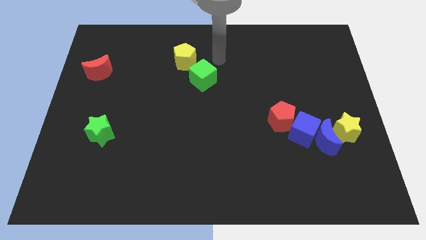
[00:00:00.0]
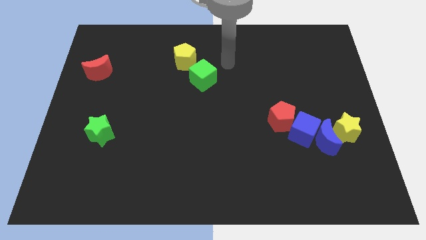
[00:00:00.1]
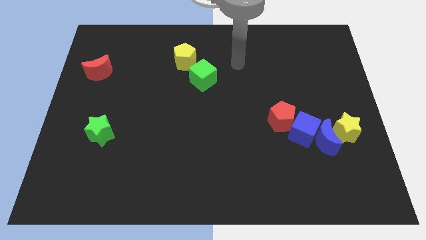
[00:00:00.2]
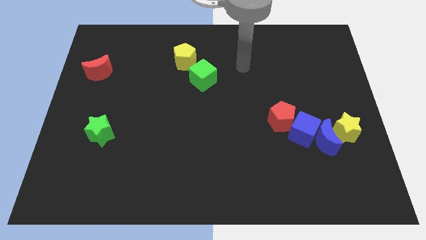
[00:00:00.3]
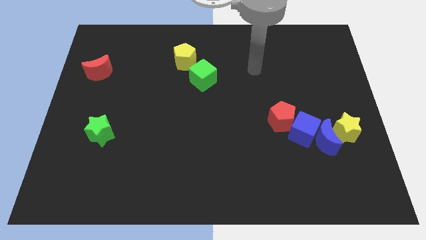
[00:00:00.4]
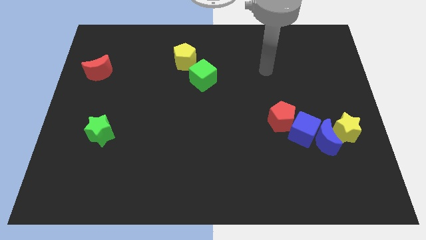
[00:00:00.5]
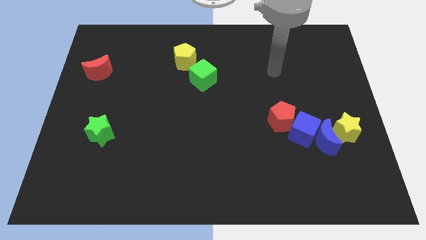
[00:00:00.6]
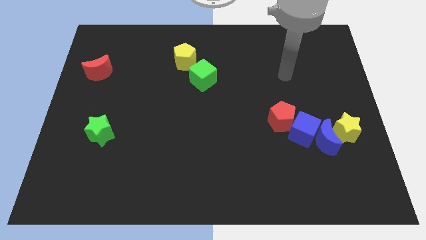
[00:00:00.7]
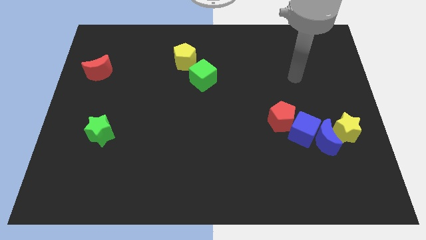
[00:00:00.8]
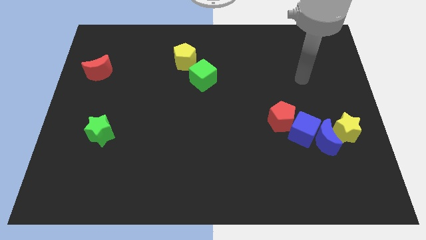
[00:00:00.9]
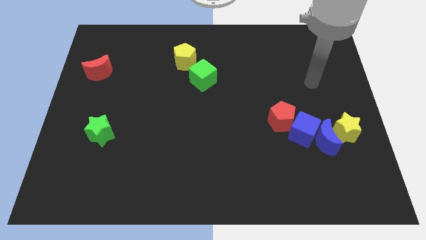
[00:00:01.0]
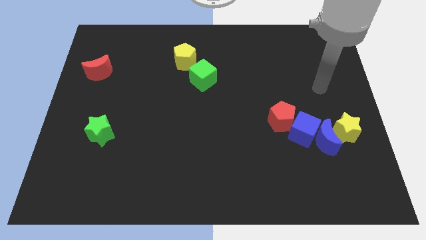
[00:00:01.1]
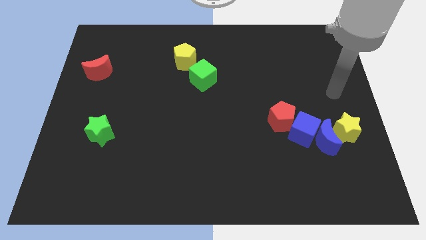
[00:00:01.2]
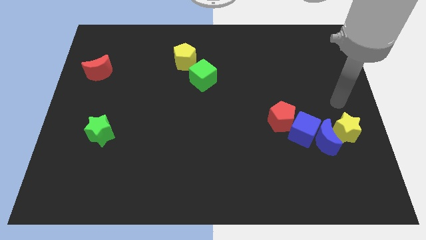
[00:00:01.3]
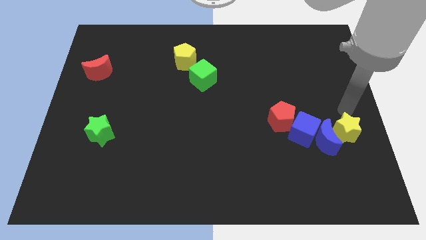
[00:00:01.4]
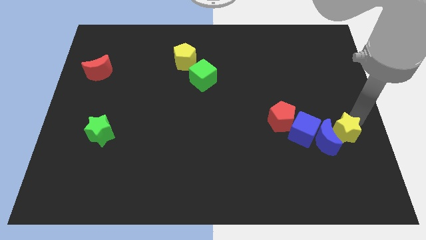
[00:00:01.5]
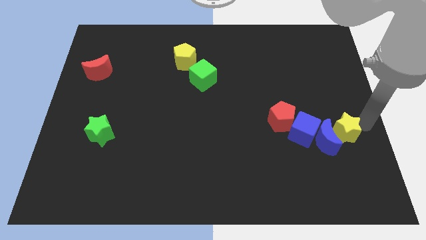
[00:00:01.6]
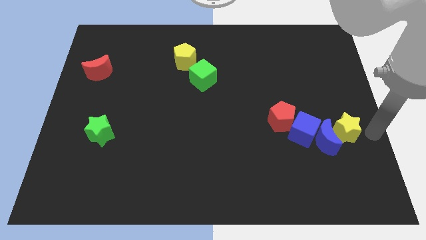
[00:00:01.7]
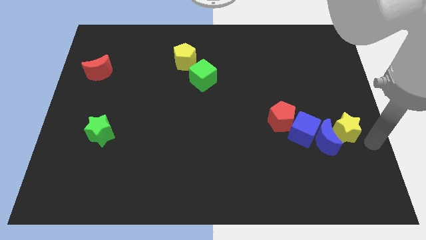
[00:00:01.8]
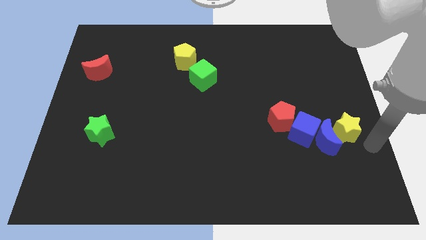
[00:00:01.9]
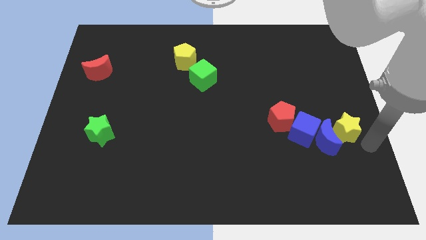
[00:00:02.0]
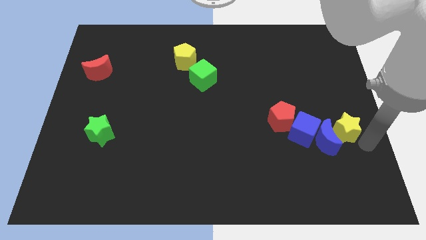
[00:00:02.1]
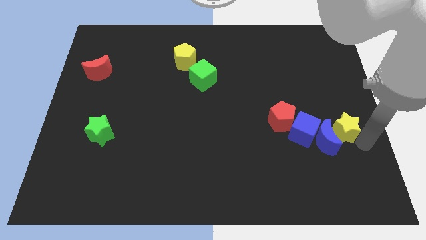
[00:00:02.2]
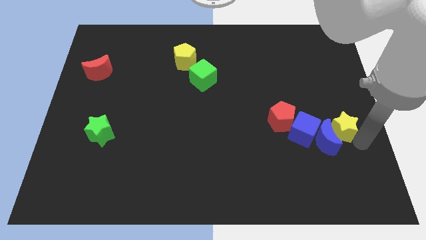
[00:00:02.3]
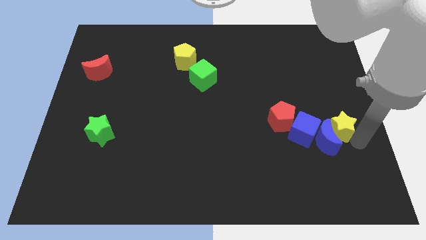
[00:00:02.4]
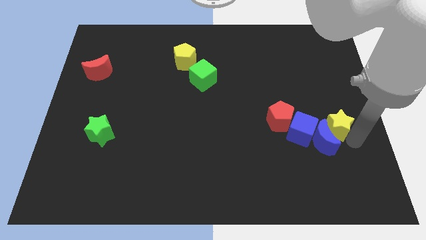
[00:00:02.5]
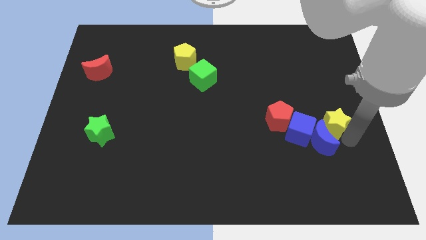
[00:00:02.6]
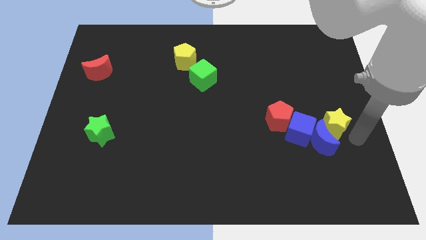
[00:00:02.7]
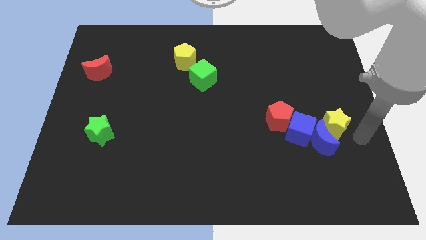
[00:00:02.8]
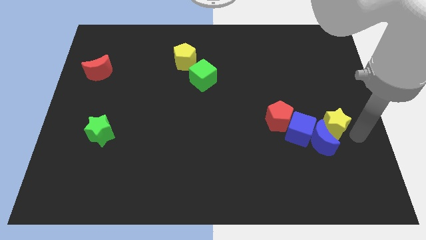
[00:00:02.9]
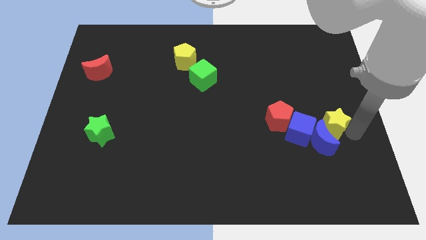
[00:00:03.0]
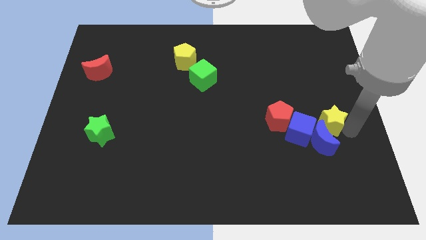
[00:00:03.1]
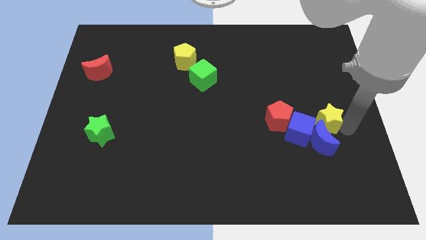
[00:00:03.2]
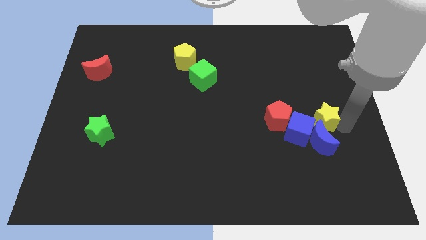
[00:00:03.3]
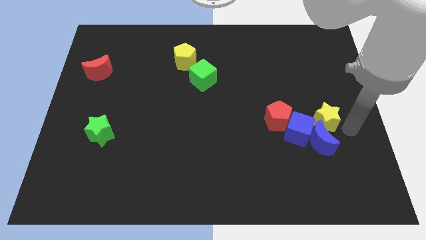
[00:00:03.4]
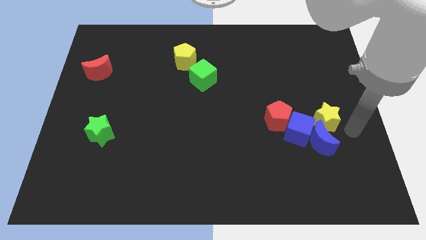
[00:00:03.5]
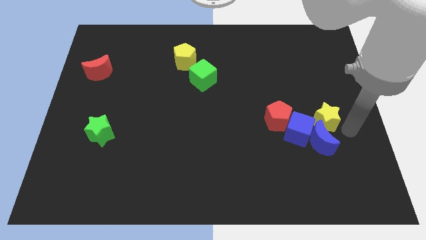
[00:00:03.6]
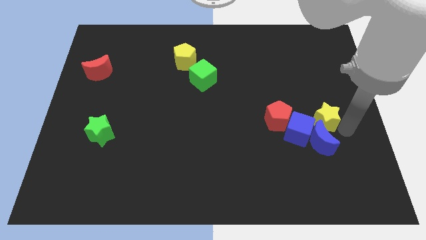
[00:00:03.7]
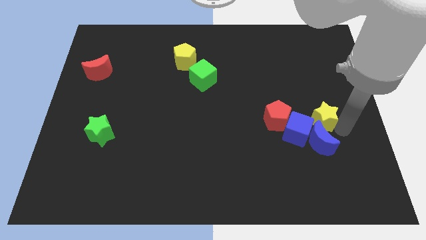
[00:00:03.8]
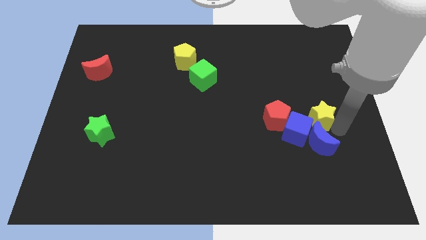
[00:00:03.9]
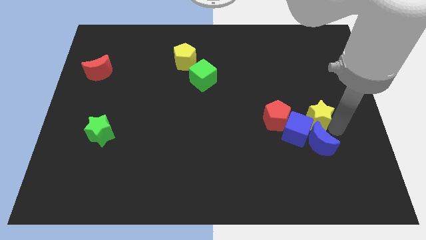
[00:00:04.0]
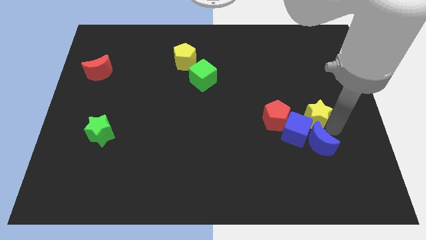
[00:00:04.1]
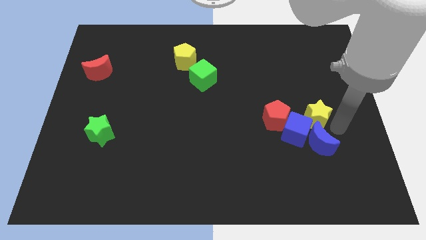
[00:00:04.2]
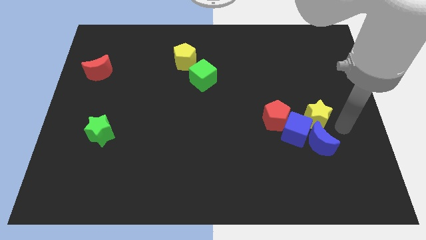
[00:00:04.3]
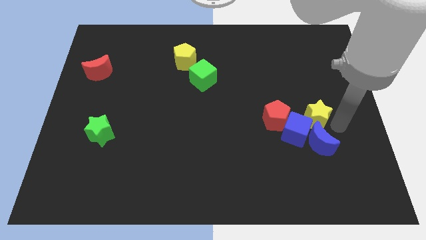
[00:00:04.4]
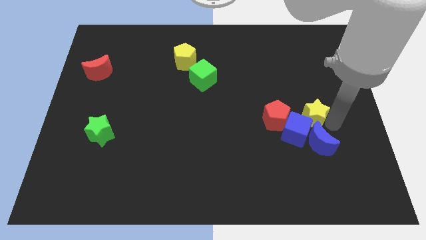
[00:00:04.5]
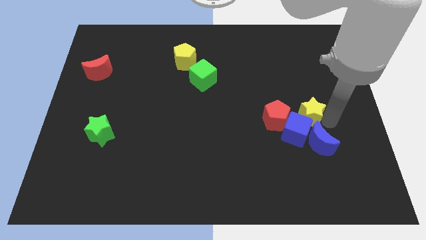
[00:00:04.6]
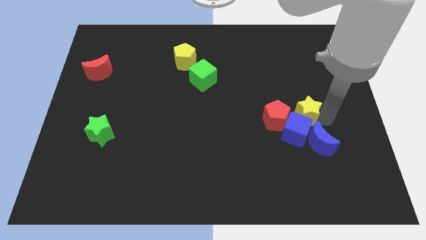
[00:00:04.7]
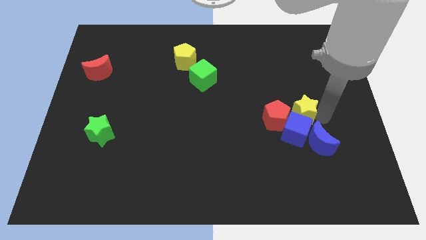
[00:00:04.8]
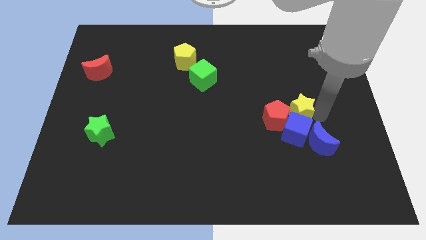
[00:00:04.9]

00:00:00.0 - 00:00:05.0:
move the yellow star next to the red pentagon

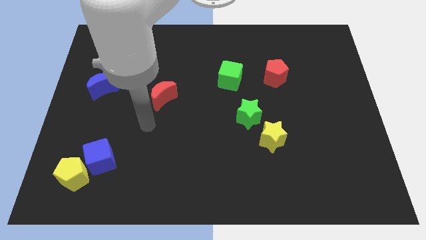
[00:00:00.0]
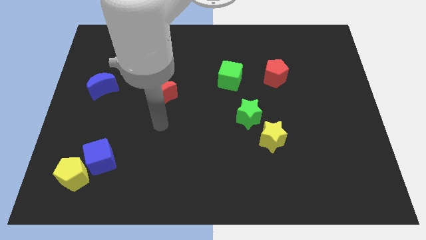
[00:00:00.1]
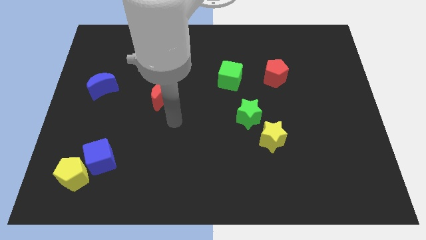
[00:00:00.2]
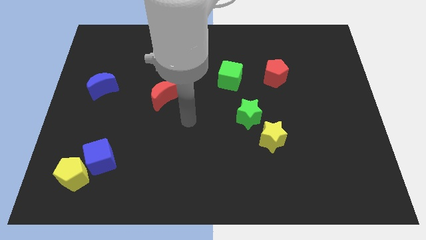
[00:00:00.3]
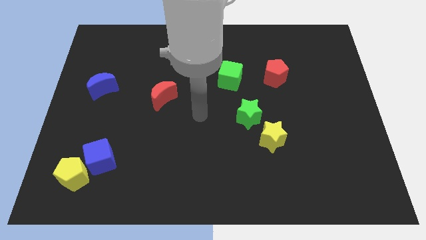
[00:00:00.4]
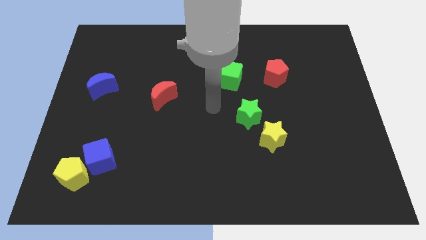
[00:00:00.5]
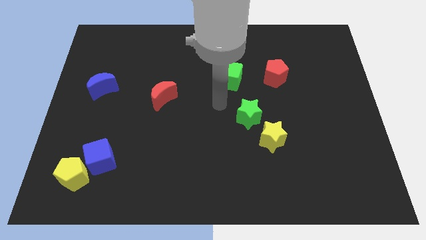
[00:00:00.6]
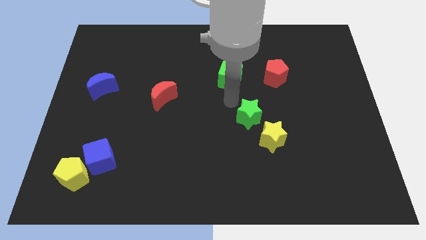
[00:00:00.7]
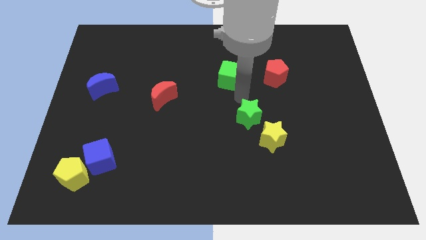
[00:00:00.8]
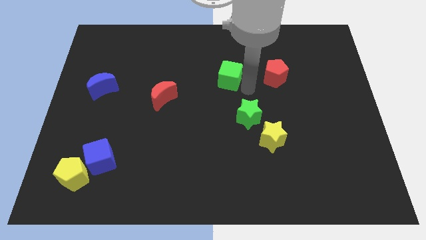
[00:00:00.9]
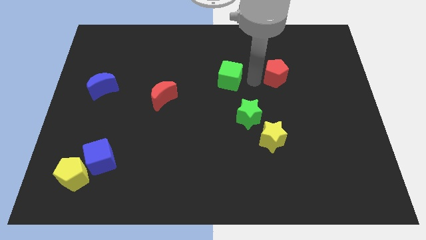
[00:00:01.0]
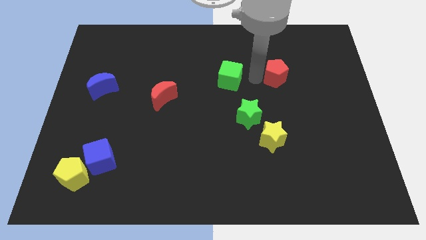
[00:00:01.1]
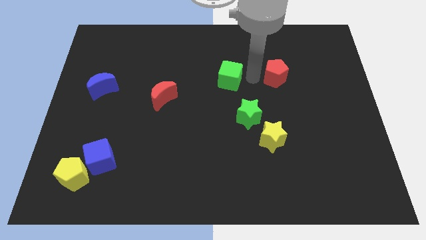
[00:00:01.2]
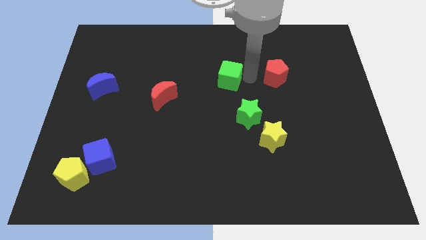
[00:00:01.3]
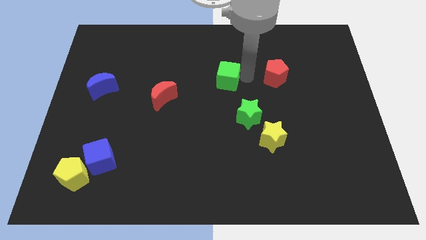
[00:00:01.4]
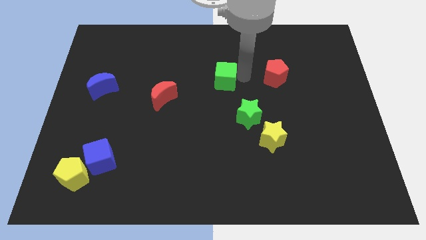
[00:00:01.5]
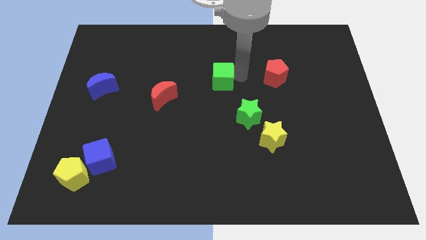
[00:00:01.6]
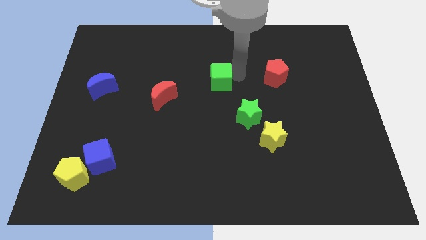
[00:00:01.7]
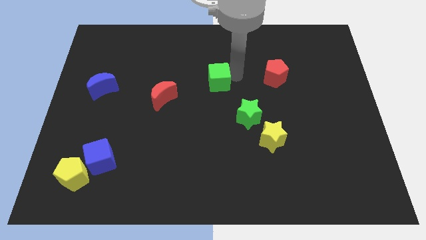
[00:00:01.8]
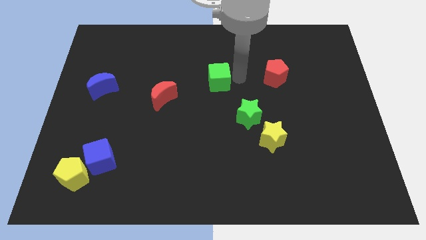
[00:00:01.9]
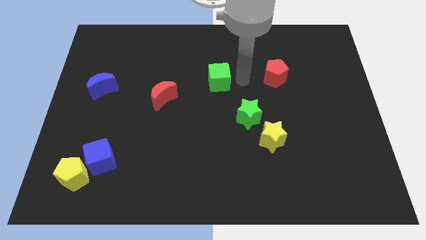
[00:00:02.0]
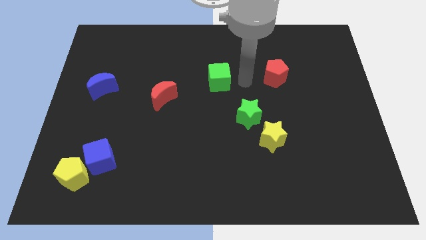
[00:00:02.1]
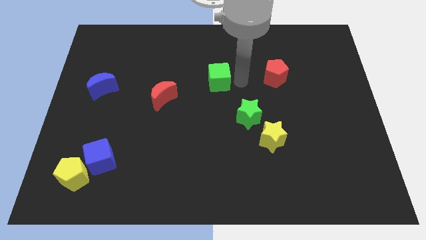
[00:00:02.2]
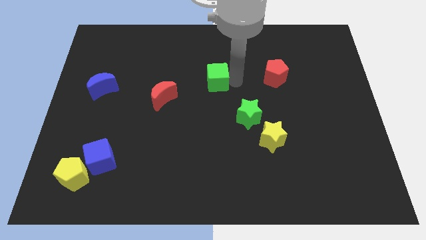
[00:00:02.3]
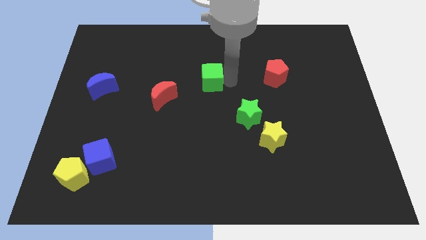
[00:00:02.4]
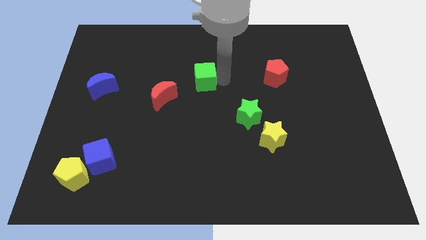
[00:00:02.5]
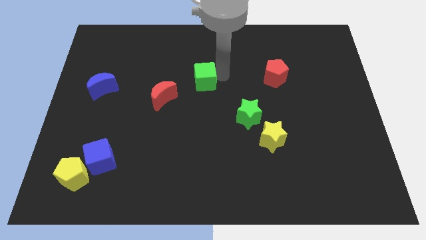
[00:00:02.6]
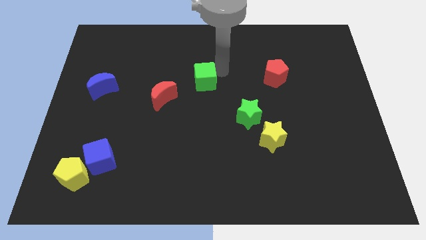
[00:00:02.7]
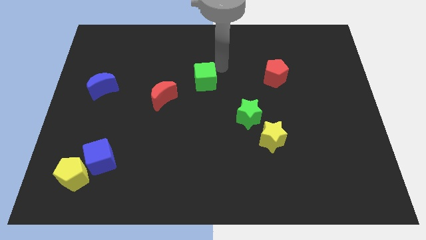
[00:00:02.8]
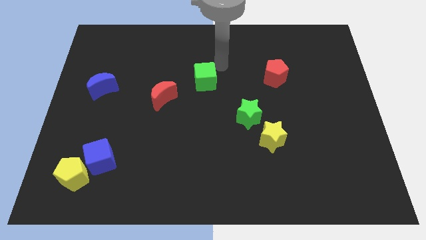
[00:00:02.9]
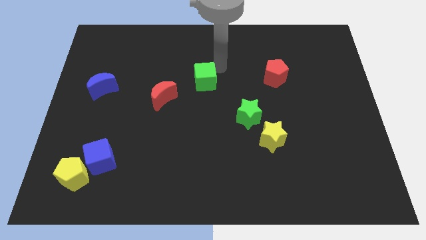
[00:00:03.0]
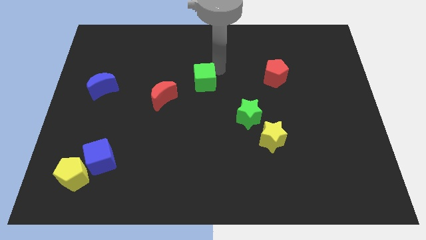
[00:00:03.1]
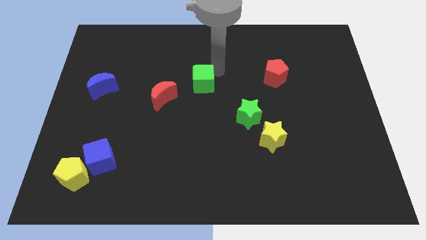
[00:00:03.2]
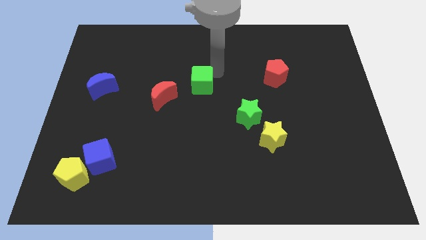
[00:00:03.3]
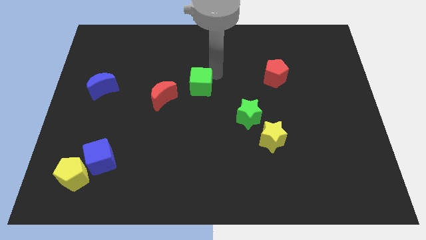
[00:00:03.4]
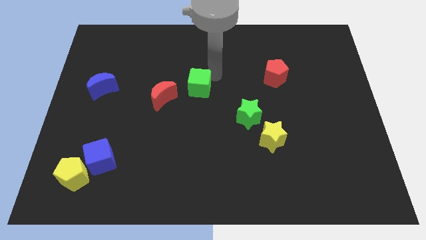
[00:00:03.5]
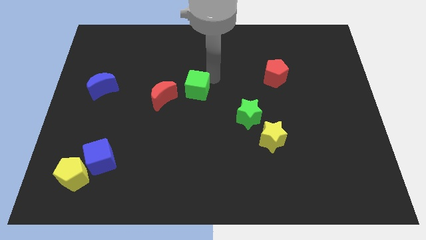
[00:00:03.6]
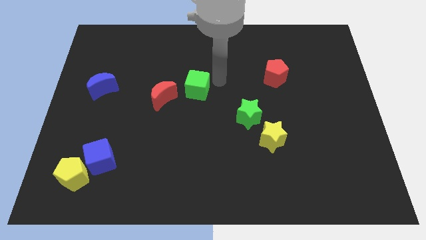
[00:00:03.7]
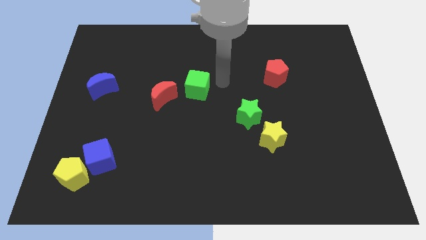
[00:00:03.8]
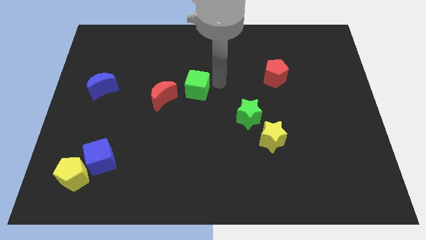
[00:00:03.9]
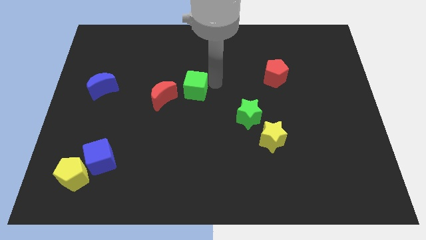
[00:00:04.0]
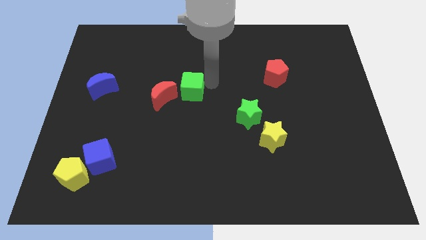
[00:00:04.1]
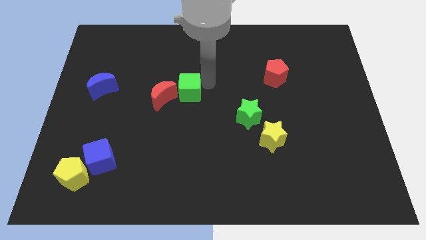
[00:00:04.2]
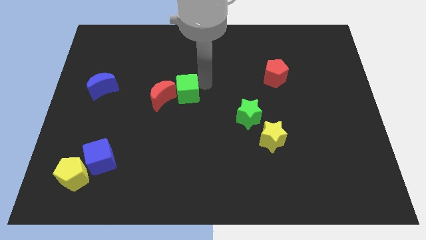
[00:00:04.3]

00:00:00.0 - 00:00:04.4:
push the green cube to the red moon
